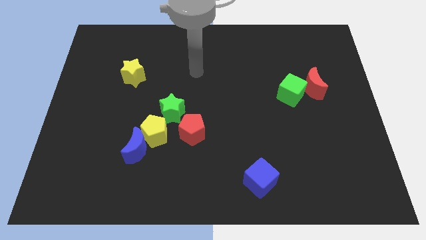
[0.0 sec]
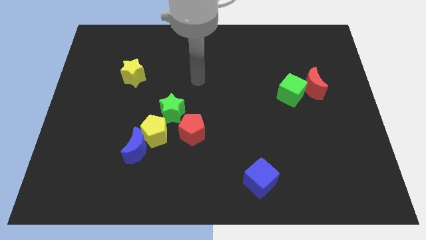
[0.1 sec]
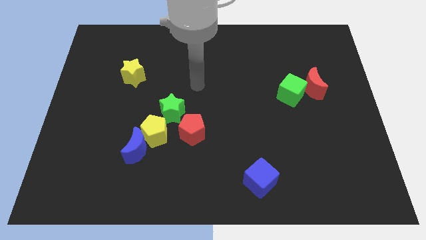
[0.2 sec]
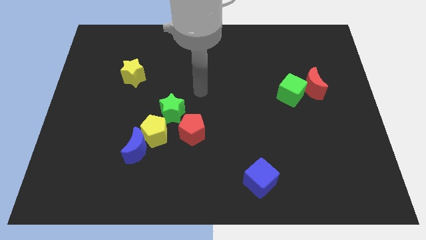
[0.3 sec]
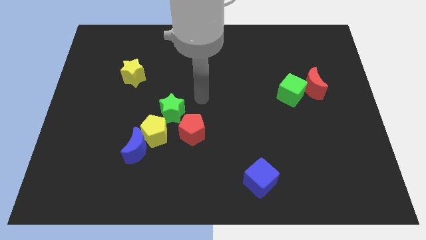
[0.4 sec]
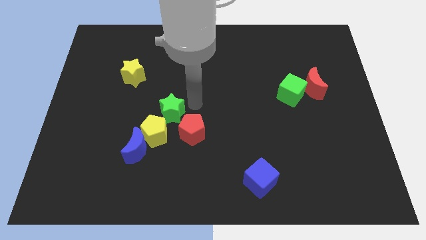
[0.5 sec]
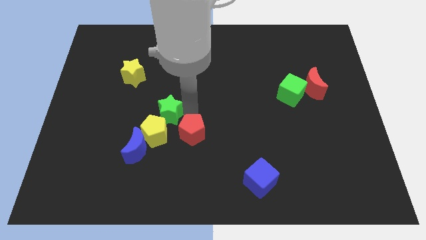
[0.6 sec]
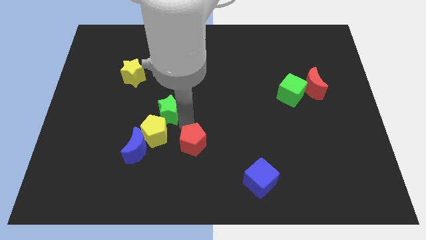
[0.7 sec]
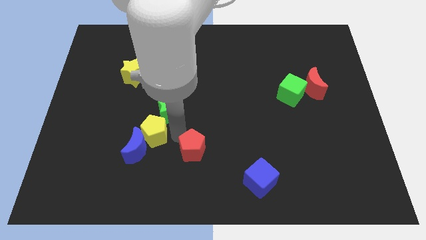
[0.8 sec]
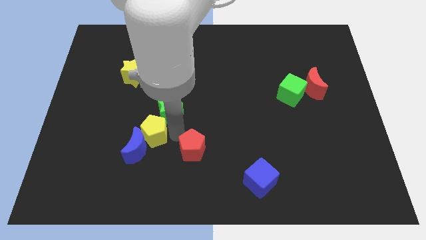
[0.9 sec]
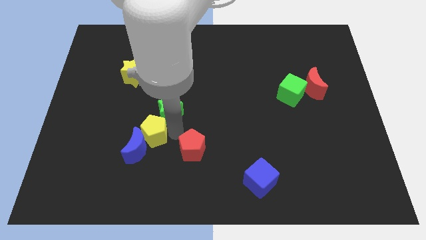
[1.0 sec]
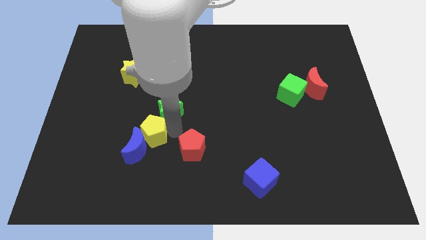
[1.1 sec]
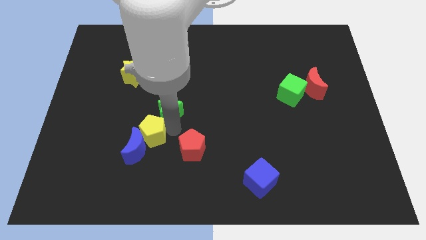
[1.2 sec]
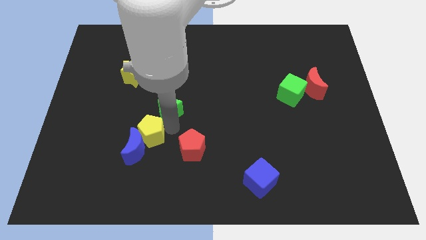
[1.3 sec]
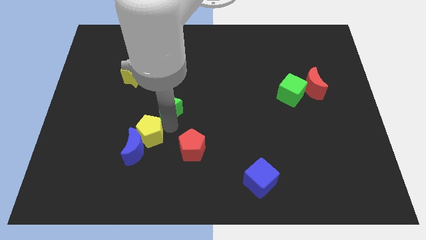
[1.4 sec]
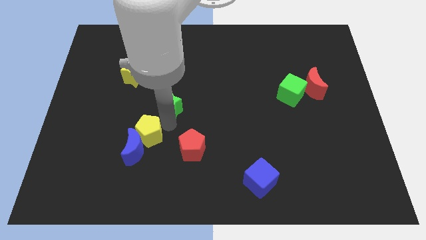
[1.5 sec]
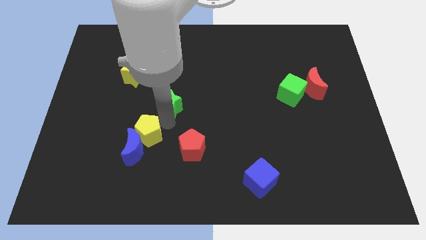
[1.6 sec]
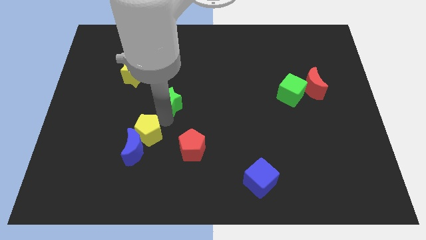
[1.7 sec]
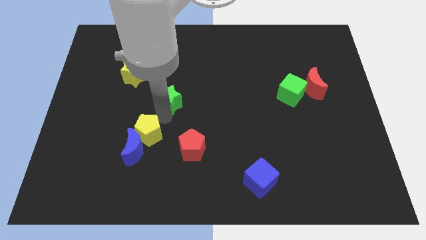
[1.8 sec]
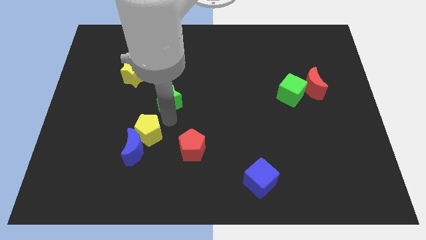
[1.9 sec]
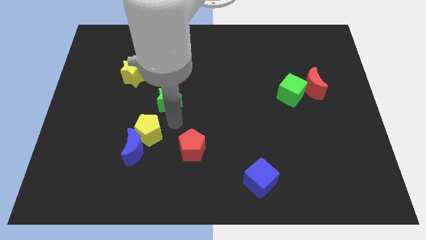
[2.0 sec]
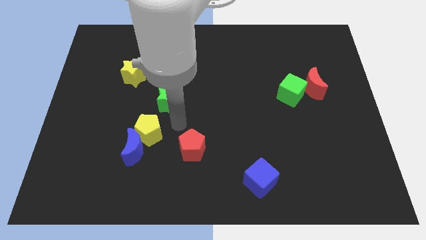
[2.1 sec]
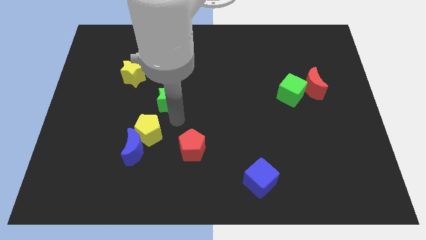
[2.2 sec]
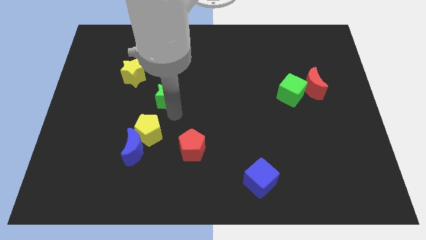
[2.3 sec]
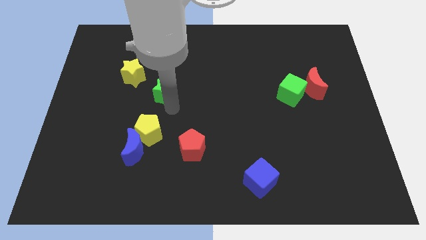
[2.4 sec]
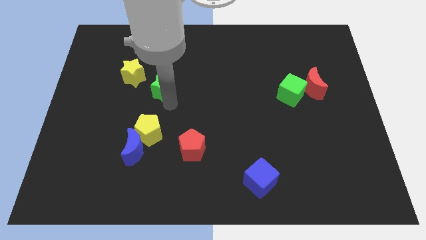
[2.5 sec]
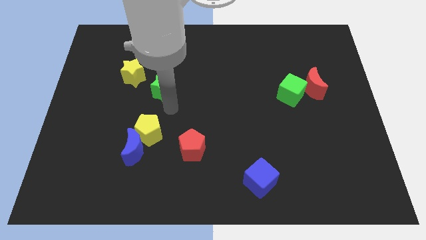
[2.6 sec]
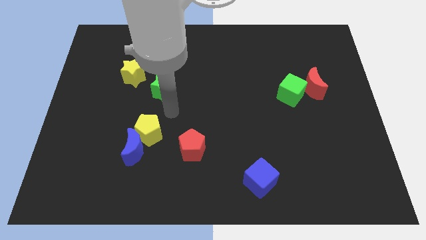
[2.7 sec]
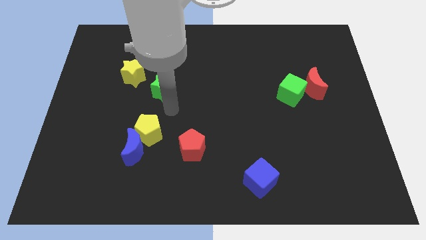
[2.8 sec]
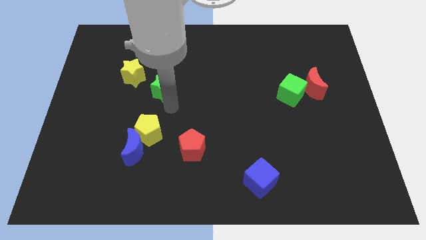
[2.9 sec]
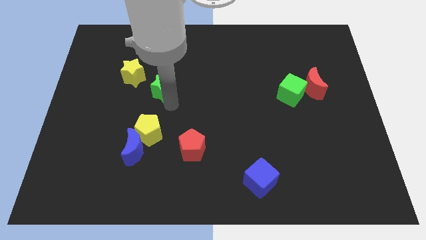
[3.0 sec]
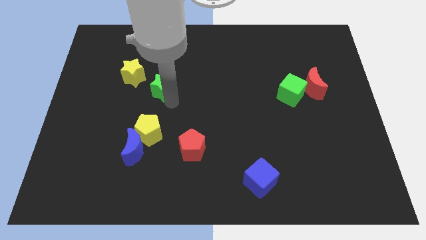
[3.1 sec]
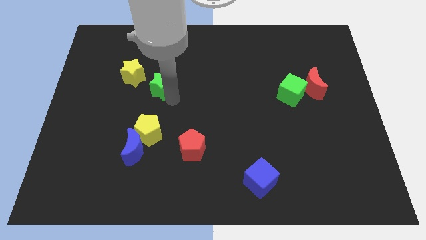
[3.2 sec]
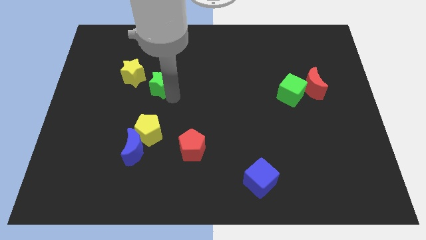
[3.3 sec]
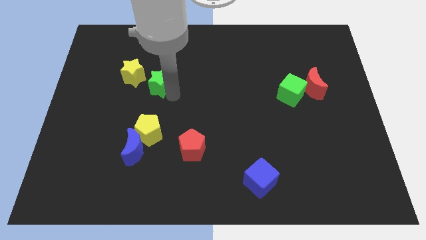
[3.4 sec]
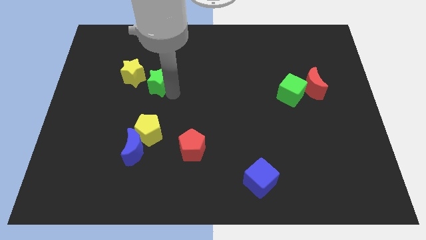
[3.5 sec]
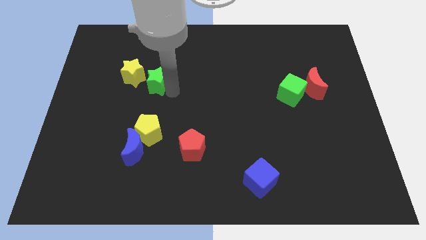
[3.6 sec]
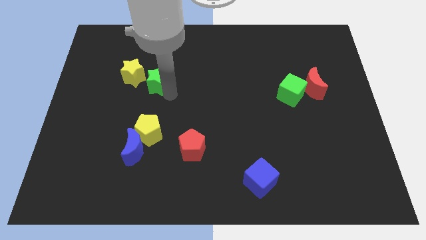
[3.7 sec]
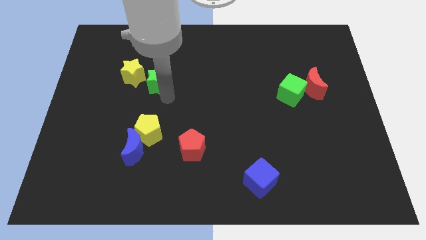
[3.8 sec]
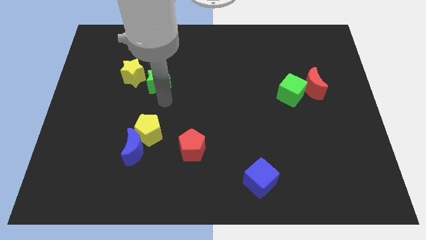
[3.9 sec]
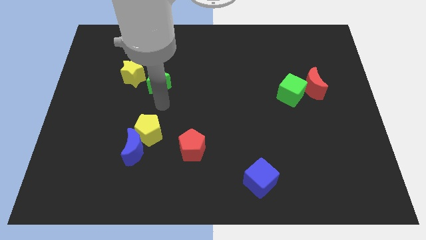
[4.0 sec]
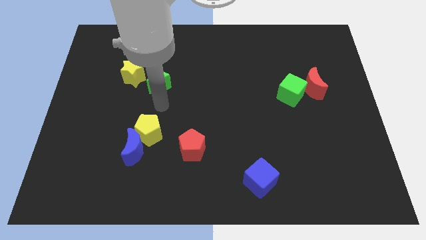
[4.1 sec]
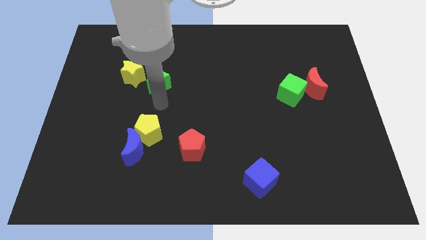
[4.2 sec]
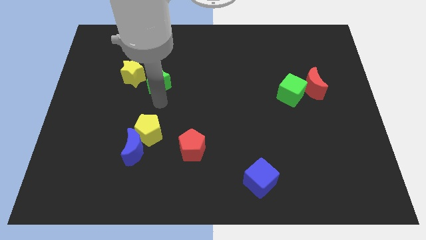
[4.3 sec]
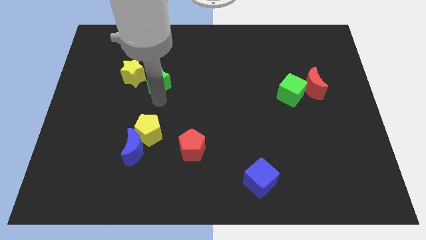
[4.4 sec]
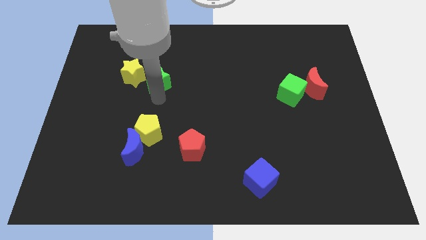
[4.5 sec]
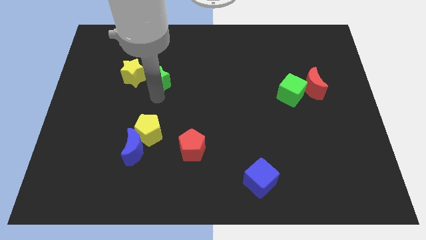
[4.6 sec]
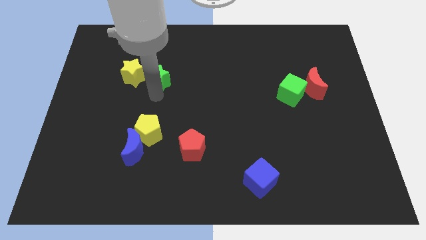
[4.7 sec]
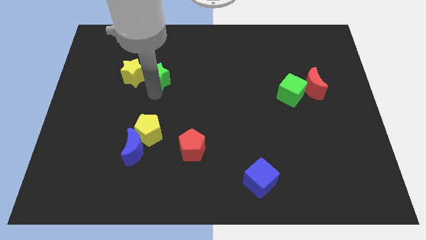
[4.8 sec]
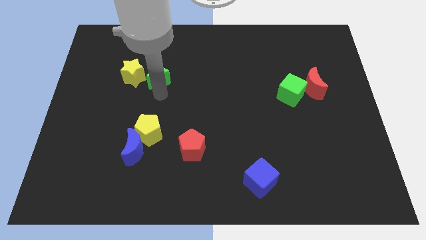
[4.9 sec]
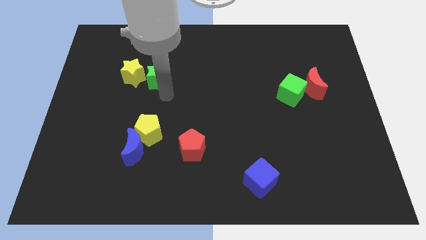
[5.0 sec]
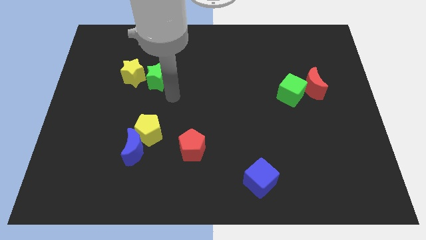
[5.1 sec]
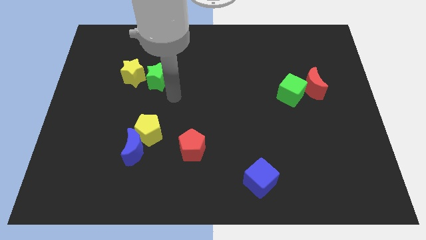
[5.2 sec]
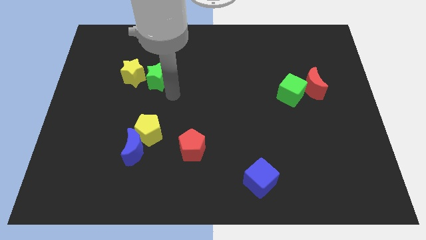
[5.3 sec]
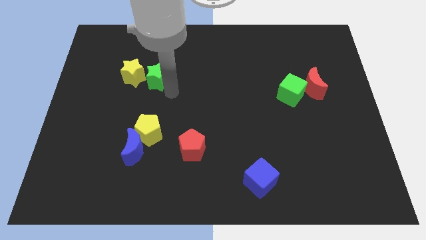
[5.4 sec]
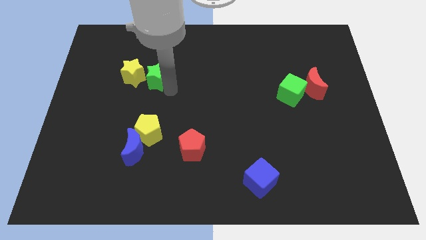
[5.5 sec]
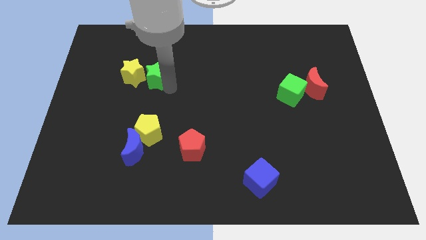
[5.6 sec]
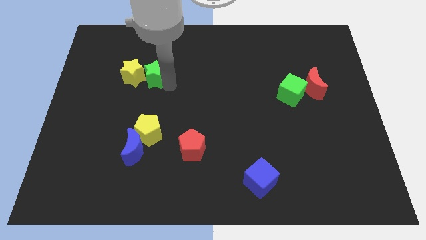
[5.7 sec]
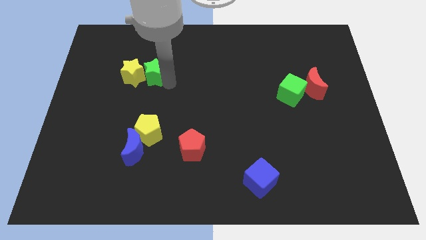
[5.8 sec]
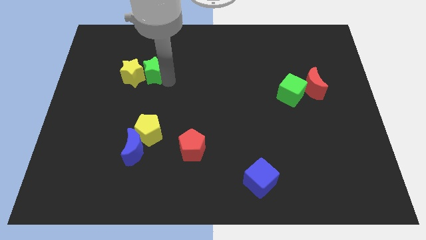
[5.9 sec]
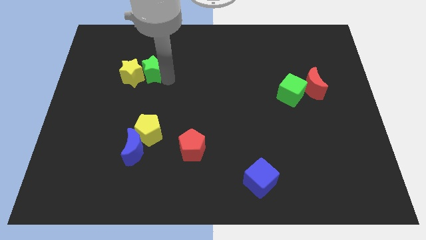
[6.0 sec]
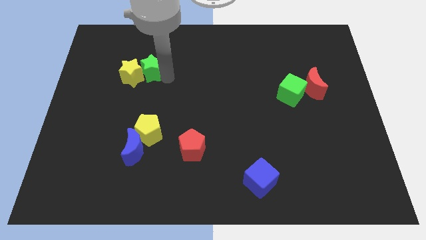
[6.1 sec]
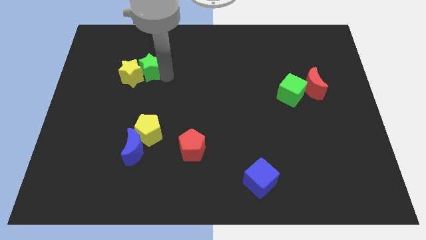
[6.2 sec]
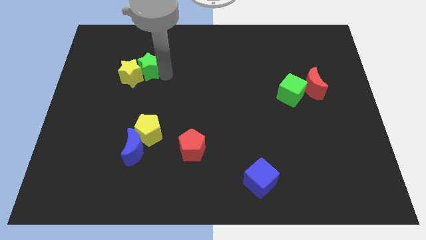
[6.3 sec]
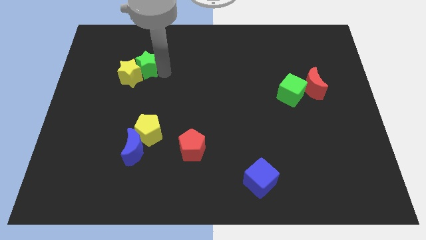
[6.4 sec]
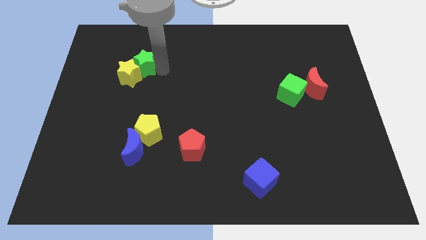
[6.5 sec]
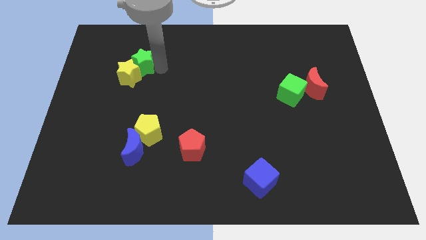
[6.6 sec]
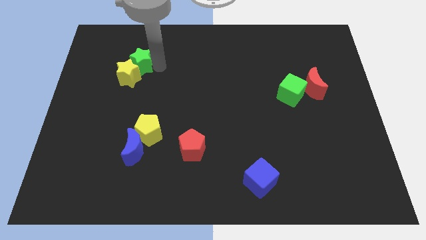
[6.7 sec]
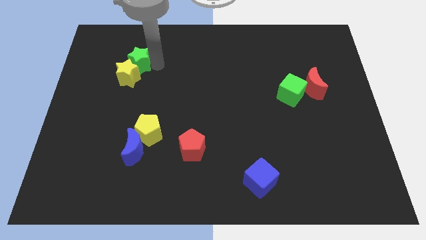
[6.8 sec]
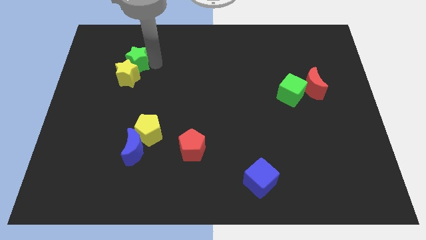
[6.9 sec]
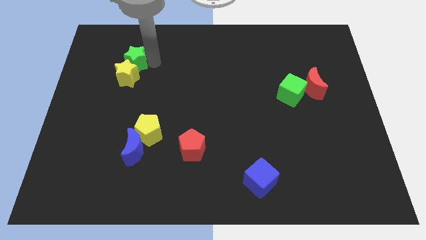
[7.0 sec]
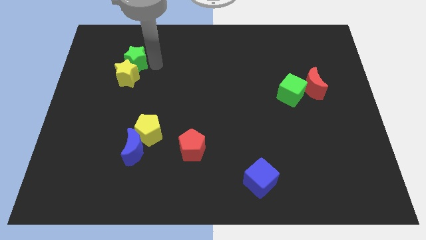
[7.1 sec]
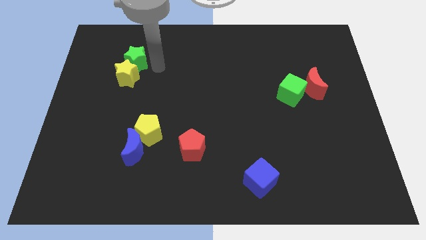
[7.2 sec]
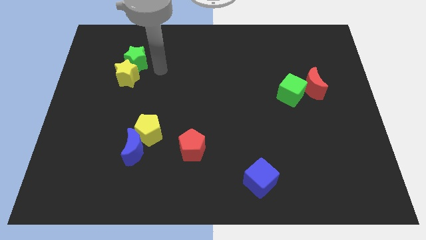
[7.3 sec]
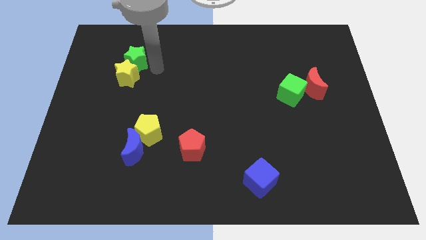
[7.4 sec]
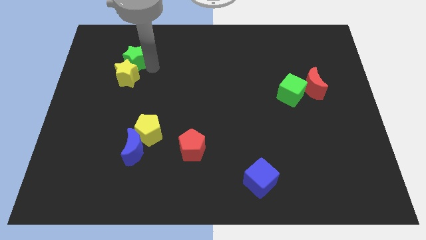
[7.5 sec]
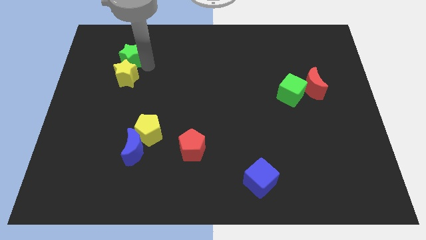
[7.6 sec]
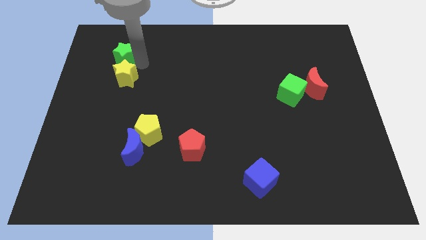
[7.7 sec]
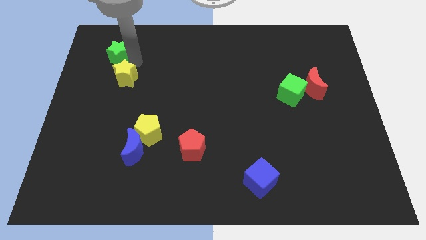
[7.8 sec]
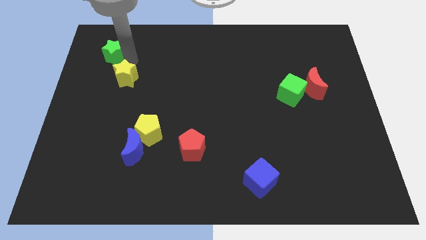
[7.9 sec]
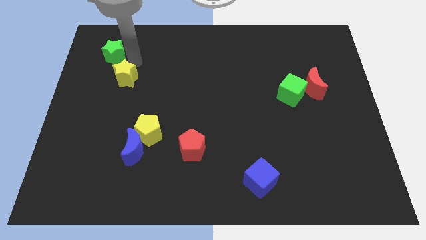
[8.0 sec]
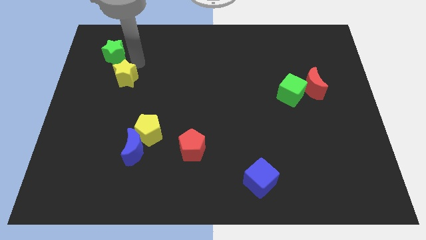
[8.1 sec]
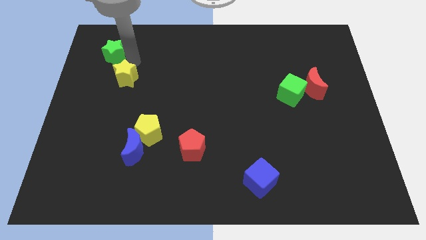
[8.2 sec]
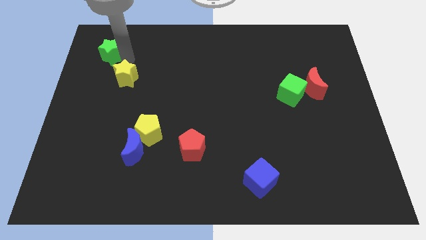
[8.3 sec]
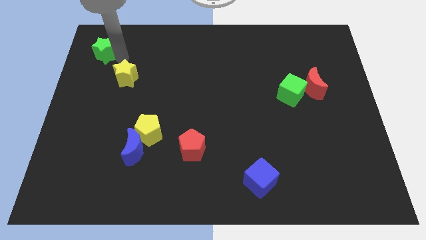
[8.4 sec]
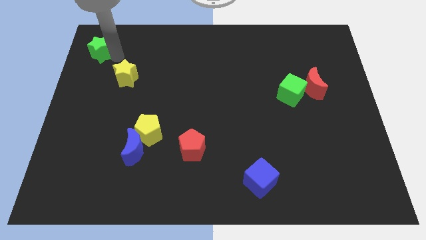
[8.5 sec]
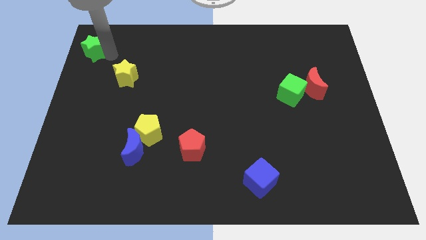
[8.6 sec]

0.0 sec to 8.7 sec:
push the green star to the top left of the board
